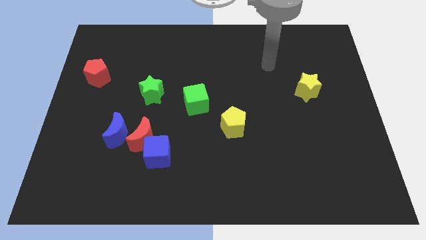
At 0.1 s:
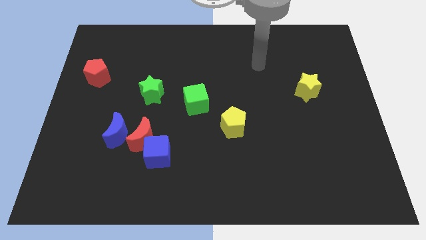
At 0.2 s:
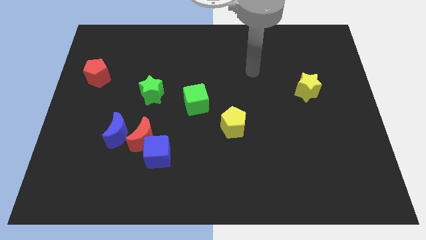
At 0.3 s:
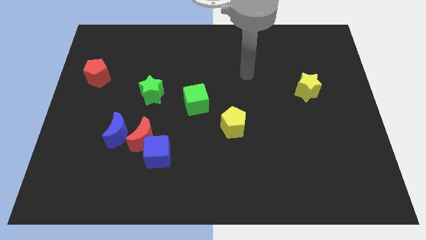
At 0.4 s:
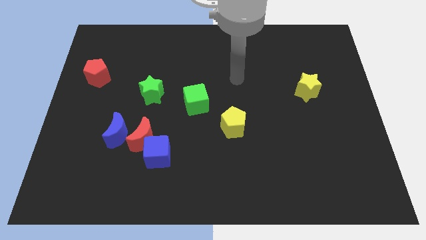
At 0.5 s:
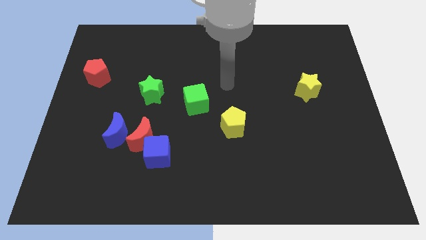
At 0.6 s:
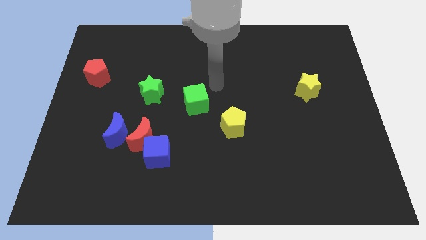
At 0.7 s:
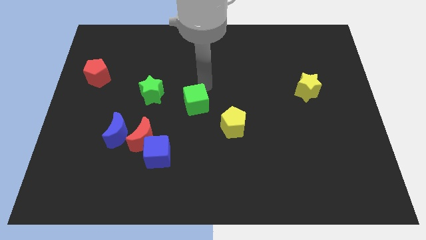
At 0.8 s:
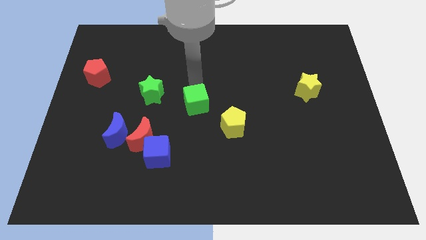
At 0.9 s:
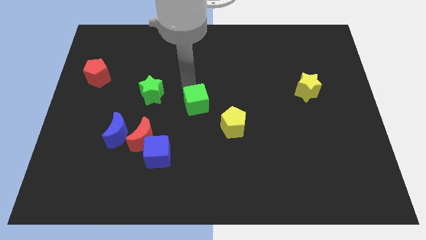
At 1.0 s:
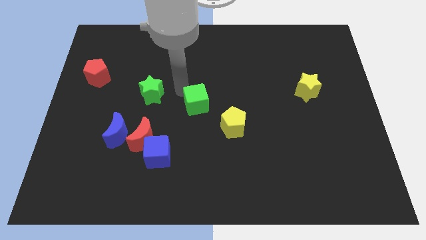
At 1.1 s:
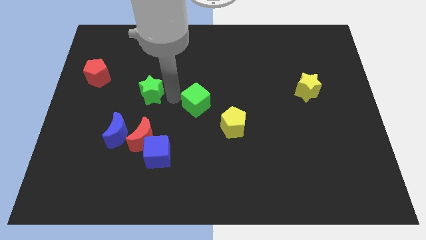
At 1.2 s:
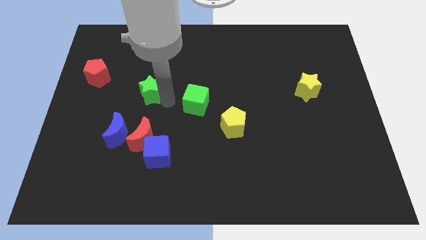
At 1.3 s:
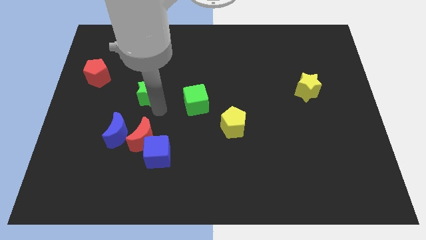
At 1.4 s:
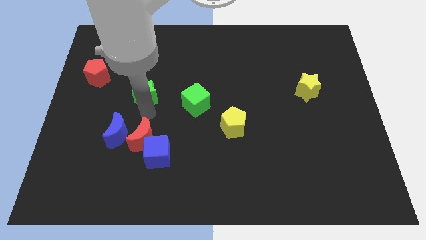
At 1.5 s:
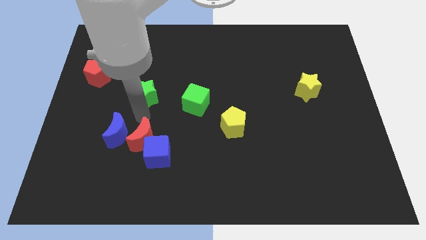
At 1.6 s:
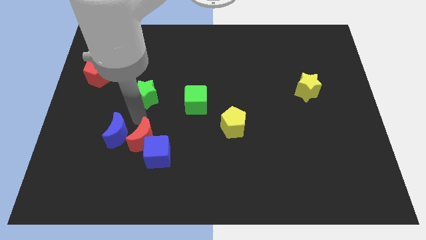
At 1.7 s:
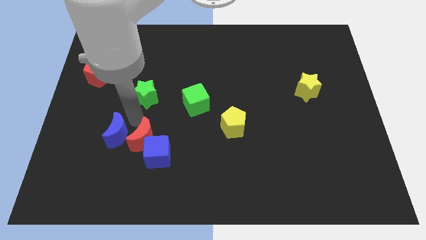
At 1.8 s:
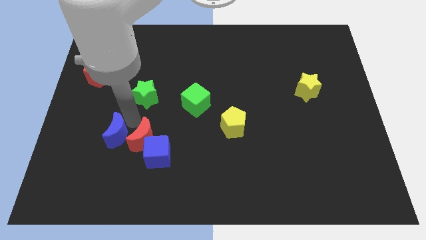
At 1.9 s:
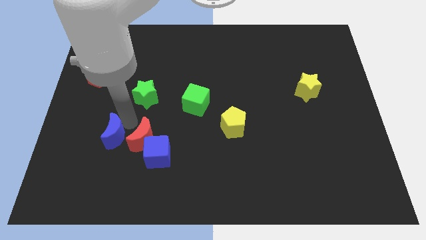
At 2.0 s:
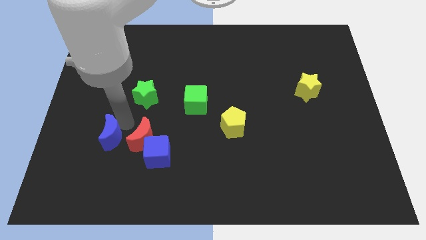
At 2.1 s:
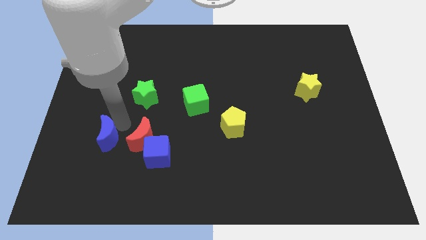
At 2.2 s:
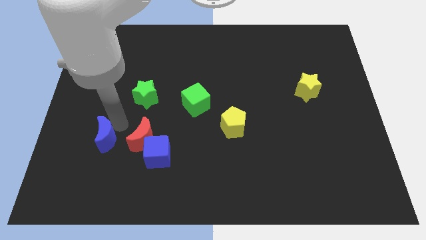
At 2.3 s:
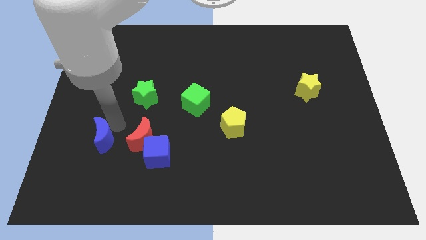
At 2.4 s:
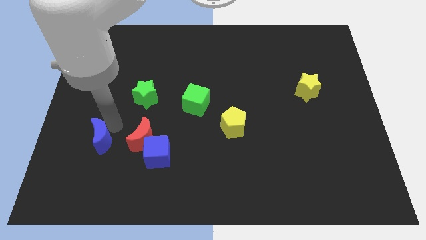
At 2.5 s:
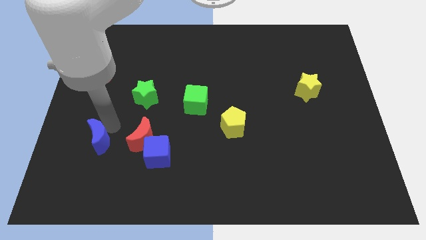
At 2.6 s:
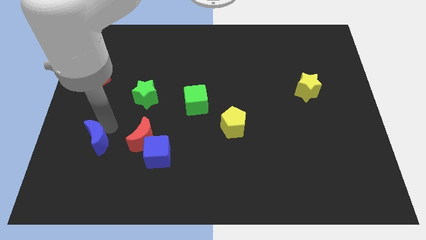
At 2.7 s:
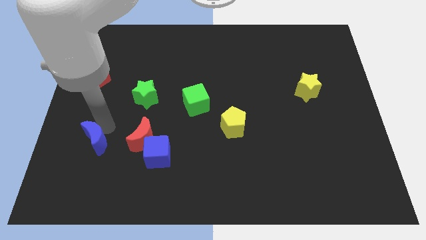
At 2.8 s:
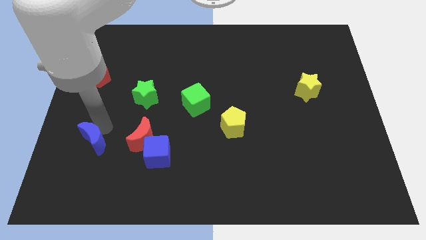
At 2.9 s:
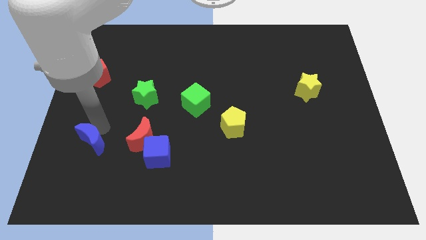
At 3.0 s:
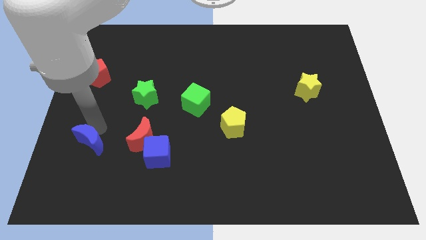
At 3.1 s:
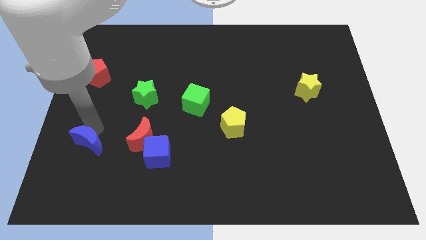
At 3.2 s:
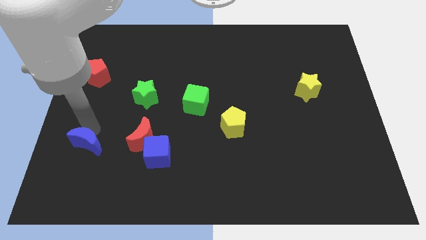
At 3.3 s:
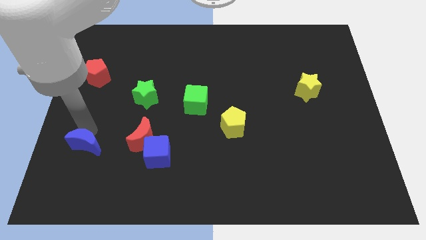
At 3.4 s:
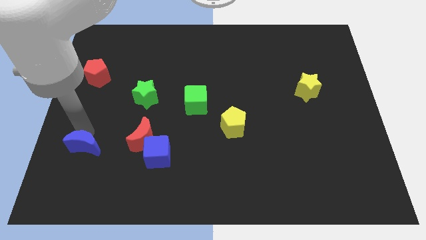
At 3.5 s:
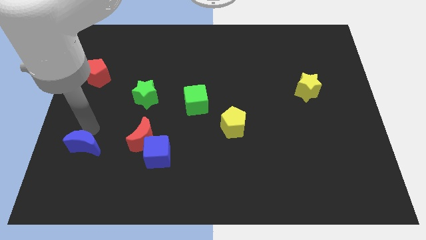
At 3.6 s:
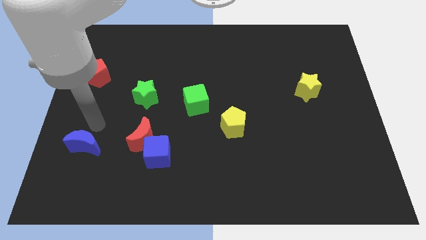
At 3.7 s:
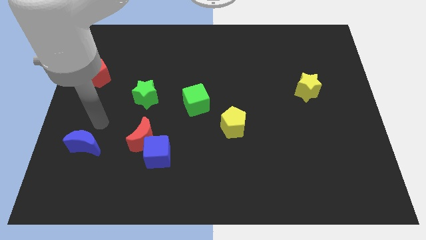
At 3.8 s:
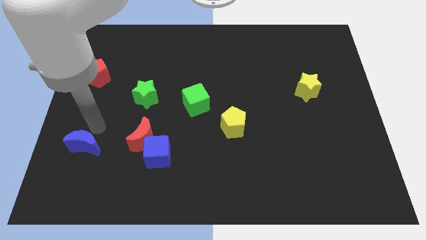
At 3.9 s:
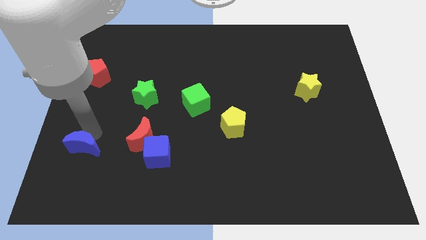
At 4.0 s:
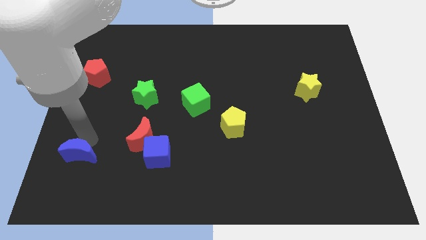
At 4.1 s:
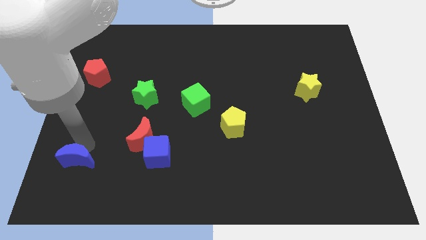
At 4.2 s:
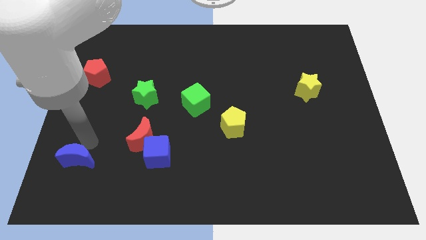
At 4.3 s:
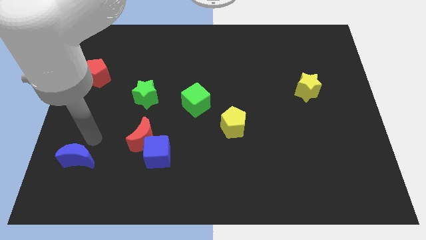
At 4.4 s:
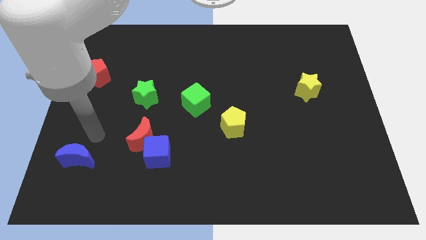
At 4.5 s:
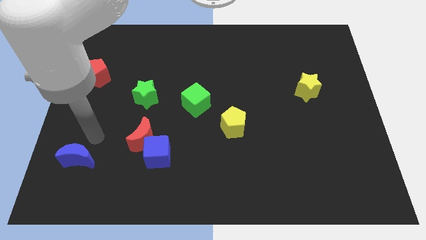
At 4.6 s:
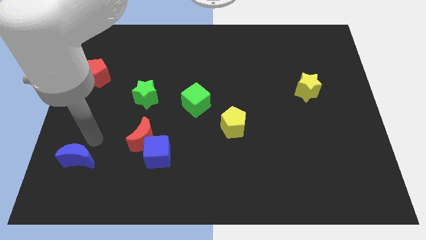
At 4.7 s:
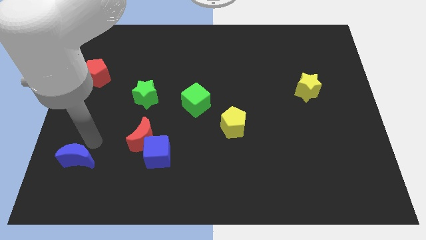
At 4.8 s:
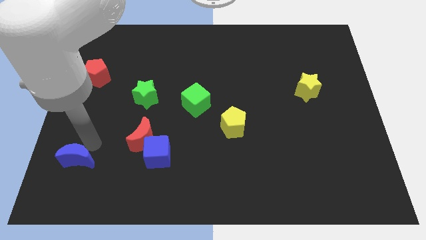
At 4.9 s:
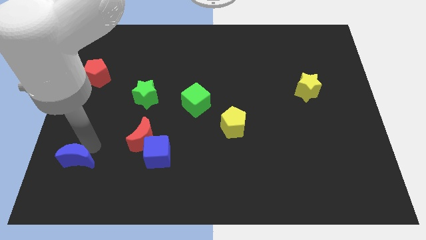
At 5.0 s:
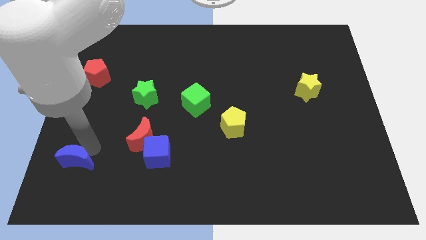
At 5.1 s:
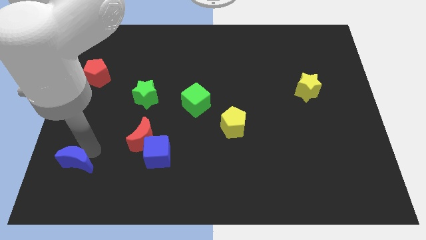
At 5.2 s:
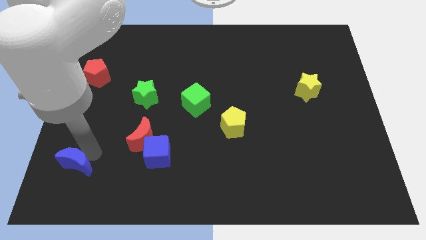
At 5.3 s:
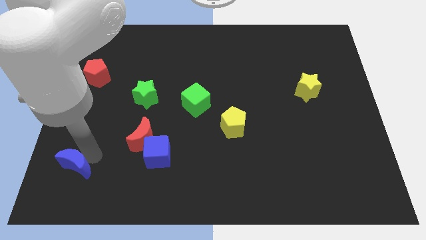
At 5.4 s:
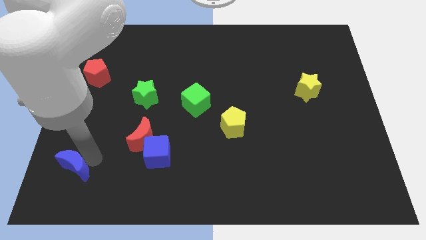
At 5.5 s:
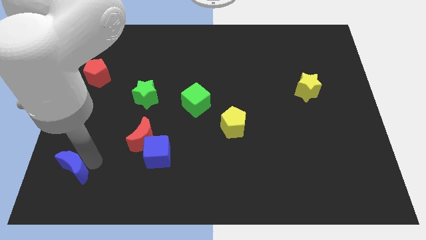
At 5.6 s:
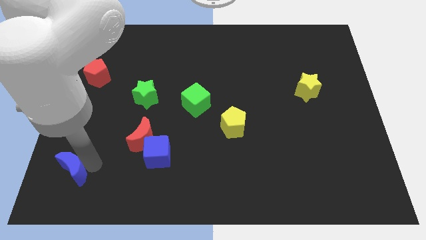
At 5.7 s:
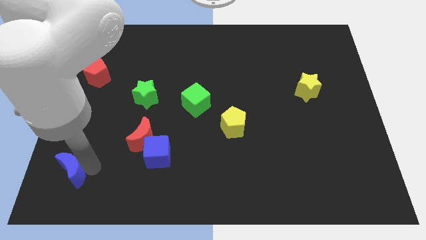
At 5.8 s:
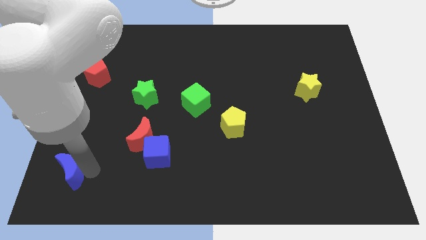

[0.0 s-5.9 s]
move the blue moon to the bottom left of the board
